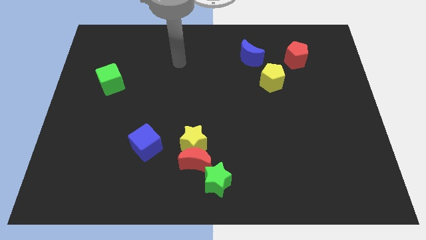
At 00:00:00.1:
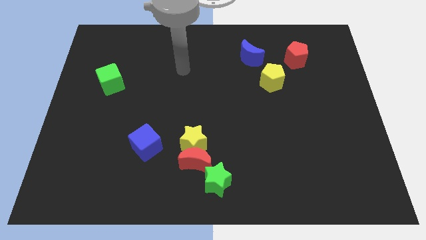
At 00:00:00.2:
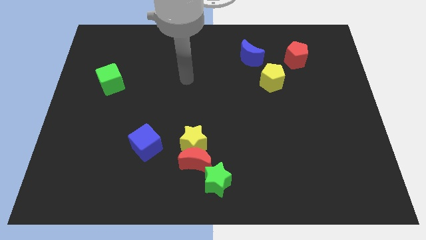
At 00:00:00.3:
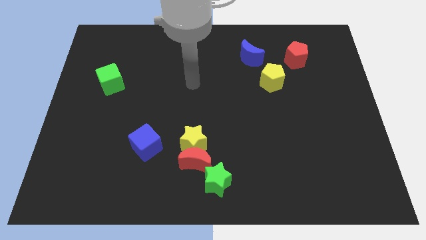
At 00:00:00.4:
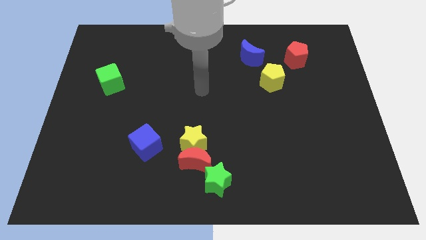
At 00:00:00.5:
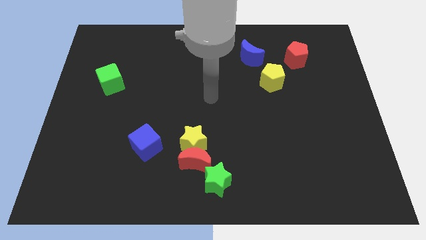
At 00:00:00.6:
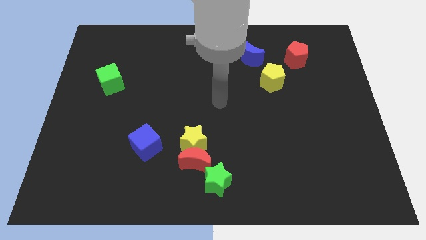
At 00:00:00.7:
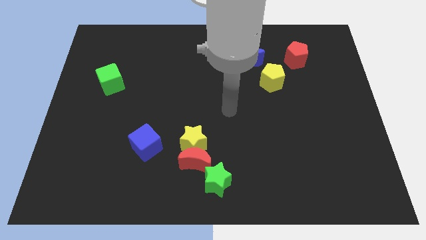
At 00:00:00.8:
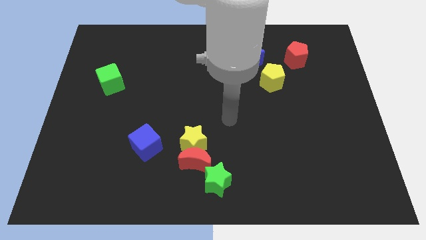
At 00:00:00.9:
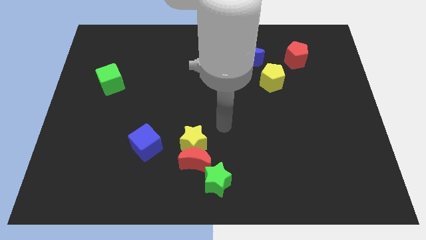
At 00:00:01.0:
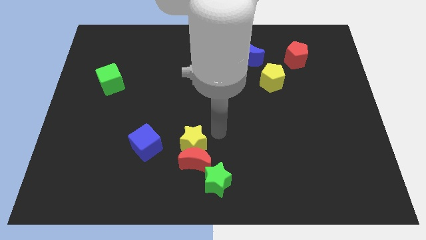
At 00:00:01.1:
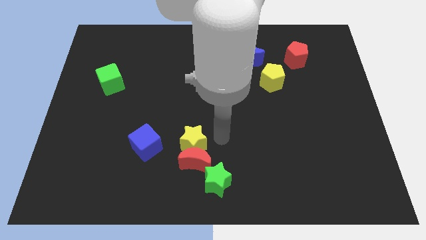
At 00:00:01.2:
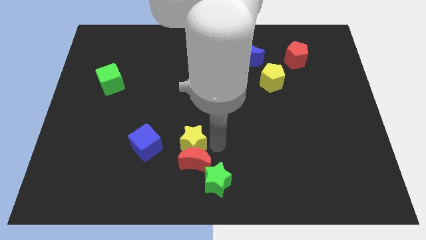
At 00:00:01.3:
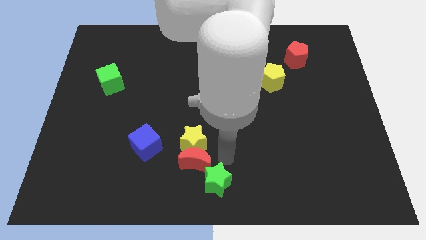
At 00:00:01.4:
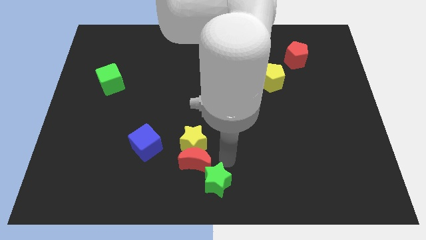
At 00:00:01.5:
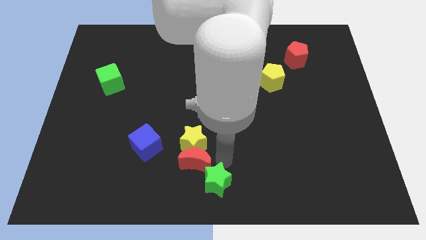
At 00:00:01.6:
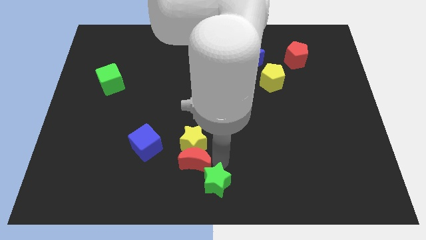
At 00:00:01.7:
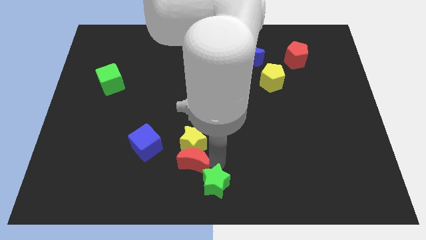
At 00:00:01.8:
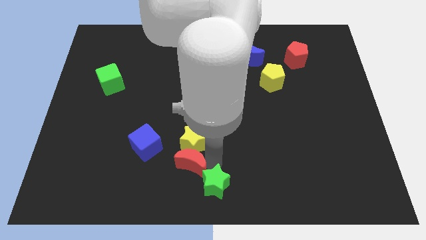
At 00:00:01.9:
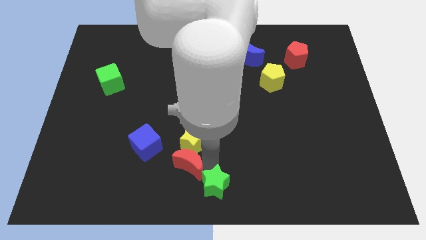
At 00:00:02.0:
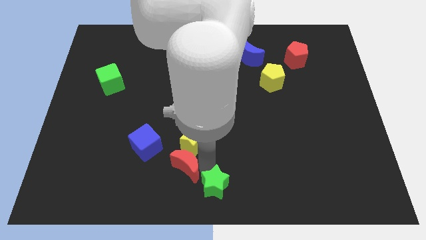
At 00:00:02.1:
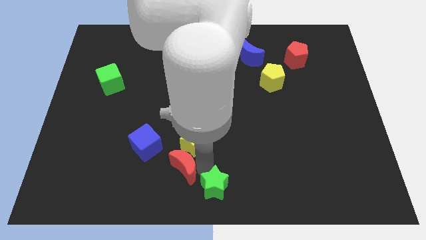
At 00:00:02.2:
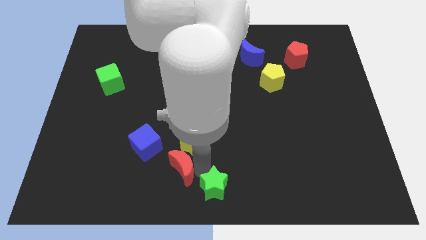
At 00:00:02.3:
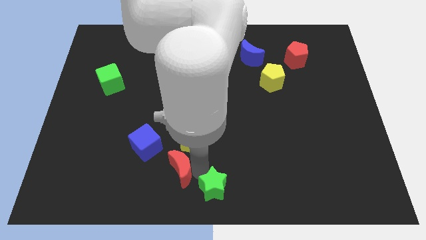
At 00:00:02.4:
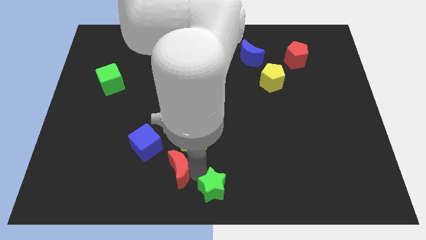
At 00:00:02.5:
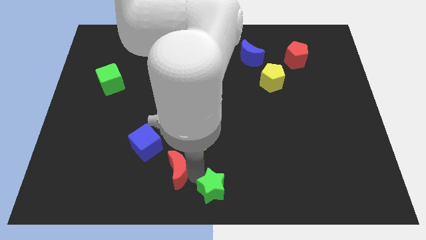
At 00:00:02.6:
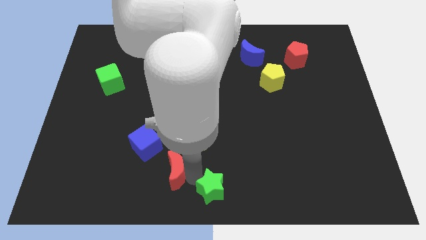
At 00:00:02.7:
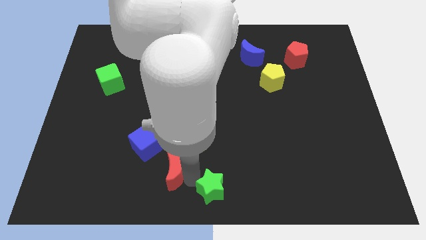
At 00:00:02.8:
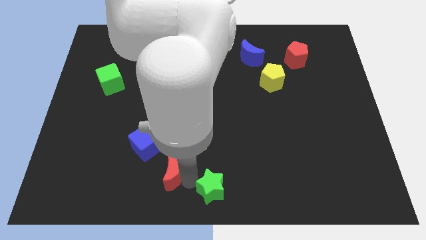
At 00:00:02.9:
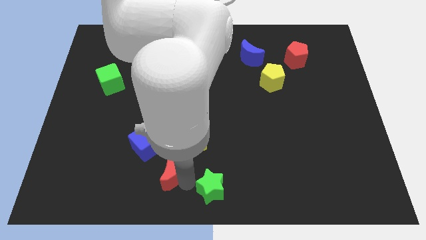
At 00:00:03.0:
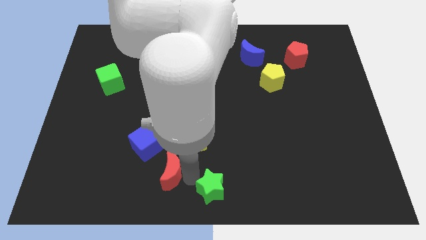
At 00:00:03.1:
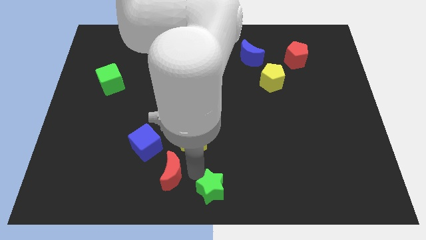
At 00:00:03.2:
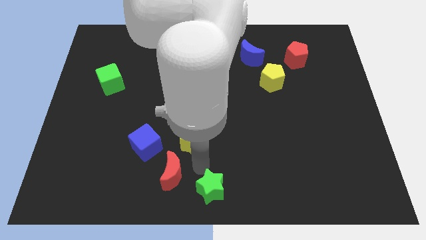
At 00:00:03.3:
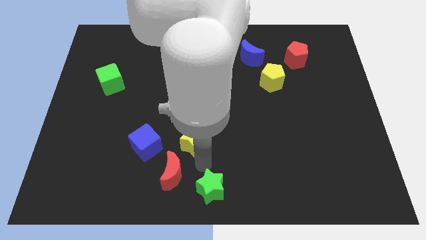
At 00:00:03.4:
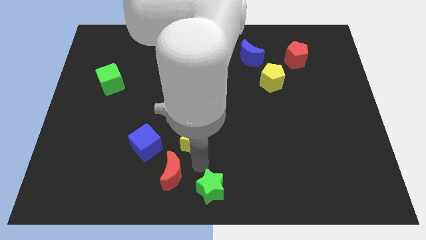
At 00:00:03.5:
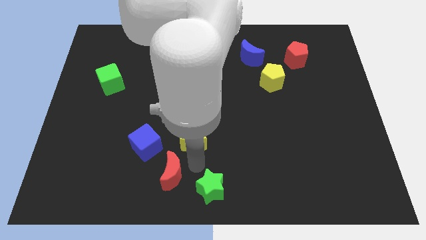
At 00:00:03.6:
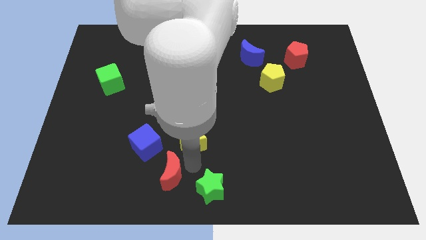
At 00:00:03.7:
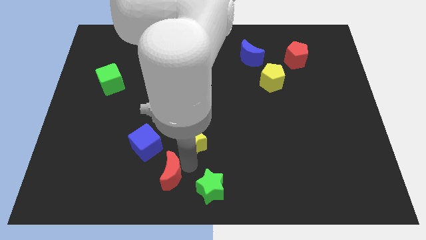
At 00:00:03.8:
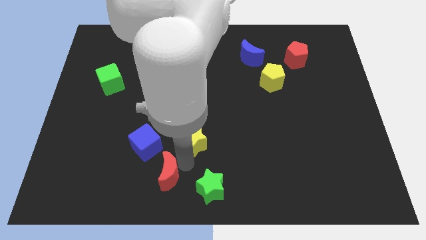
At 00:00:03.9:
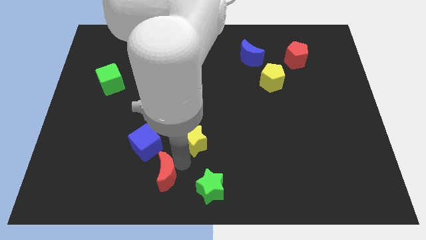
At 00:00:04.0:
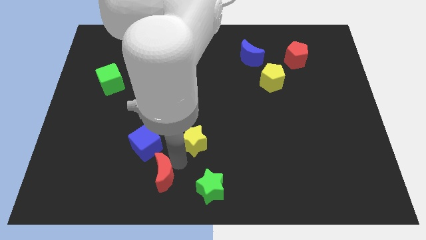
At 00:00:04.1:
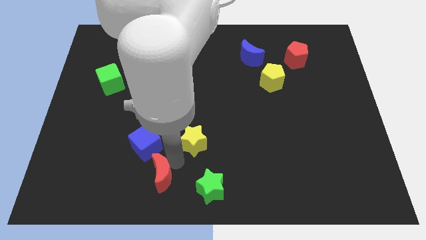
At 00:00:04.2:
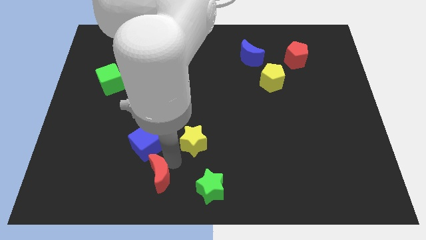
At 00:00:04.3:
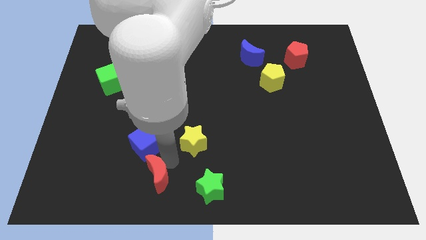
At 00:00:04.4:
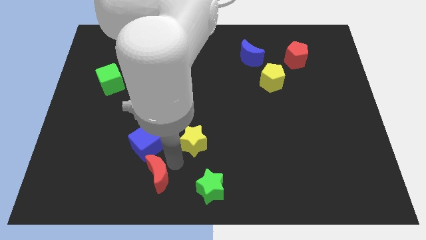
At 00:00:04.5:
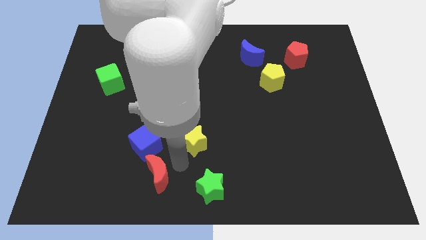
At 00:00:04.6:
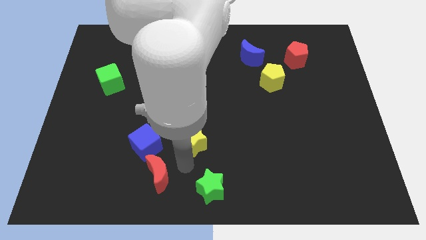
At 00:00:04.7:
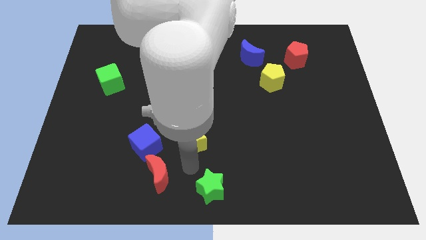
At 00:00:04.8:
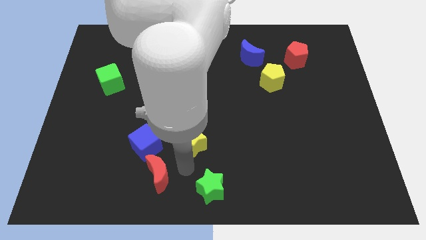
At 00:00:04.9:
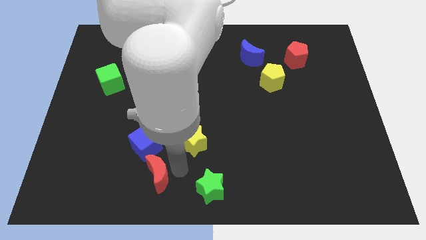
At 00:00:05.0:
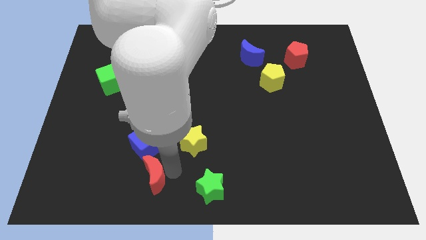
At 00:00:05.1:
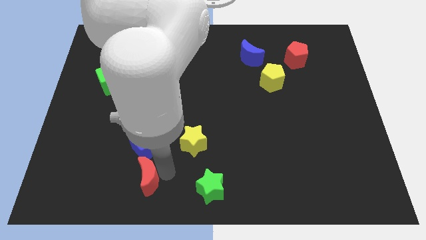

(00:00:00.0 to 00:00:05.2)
move the red moon away from the yellow star and green star

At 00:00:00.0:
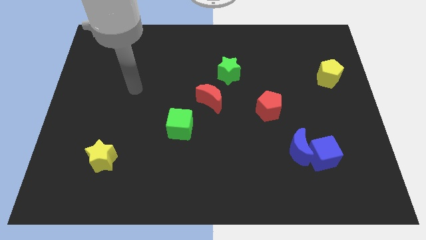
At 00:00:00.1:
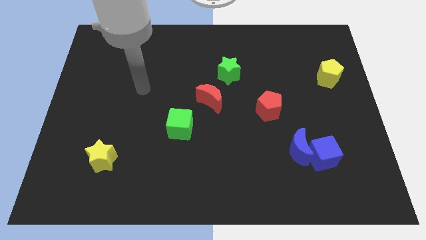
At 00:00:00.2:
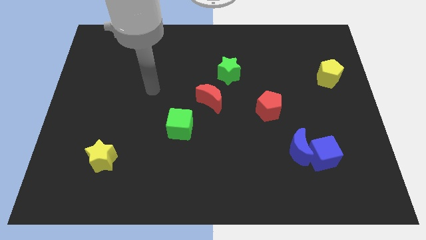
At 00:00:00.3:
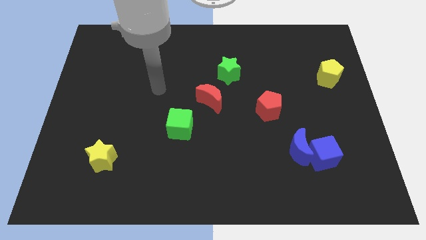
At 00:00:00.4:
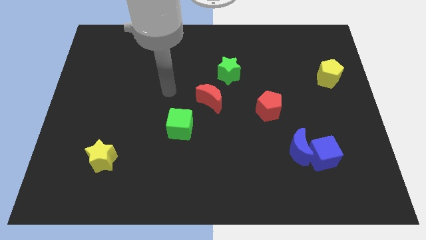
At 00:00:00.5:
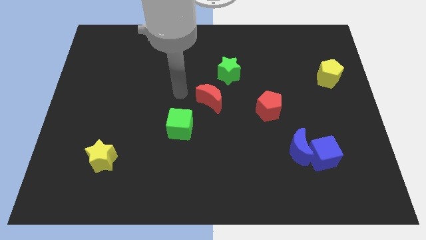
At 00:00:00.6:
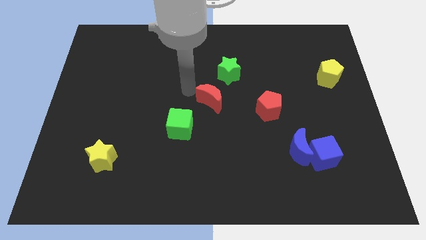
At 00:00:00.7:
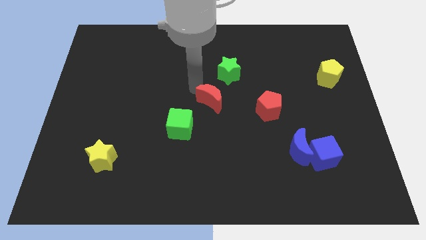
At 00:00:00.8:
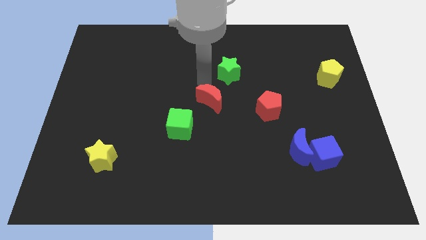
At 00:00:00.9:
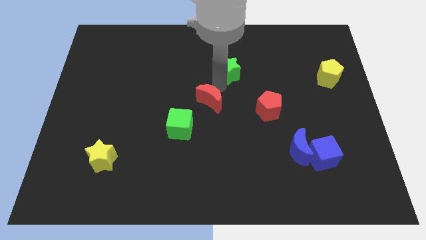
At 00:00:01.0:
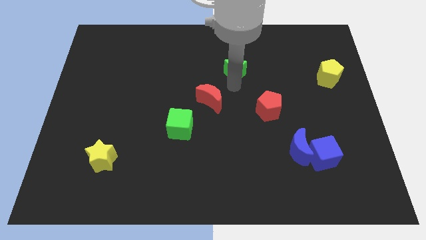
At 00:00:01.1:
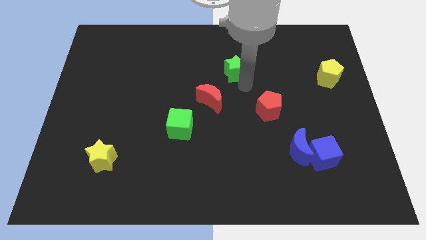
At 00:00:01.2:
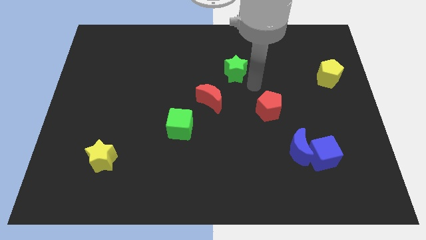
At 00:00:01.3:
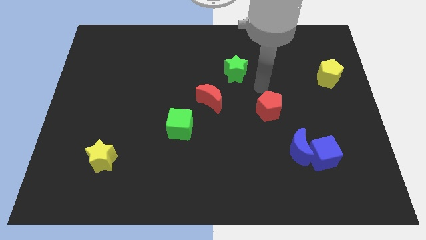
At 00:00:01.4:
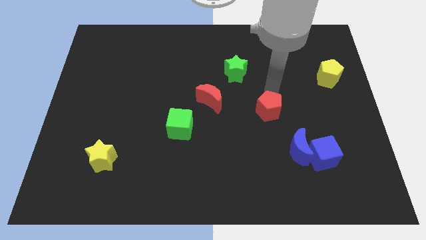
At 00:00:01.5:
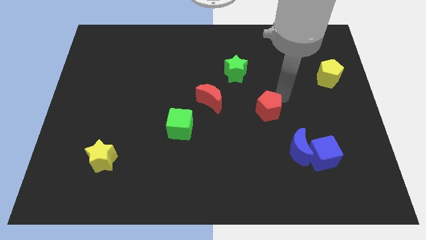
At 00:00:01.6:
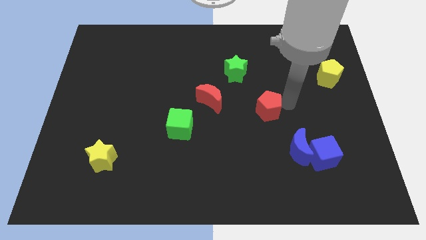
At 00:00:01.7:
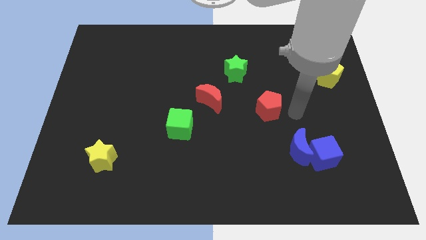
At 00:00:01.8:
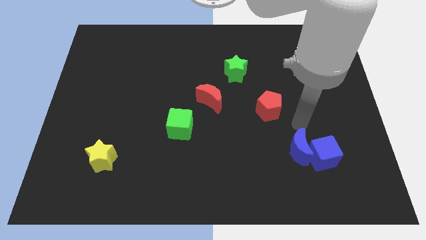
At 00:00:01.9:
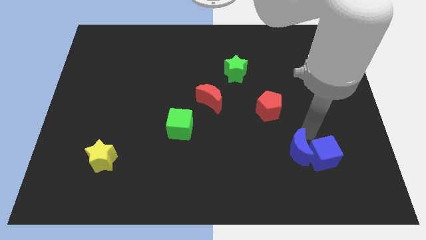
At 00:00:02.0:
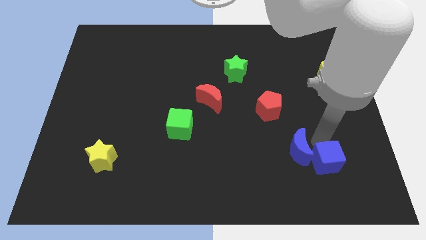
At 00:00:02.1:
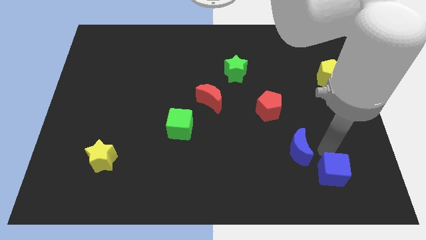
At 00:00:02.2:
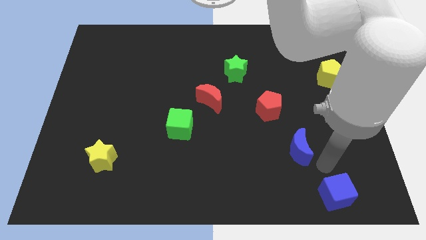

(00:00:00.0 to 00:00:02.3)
separate the blue moon from the blue cube

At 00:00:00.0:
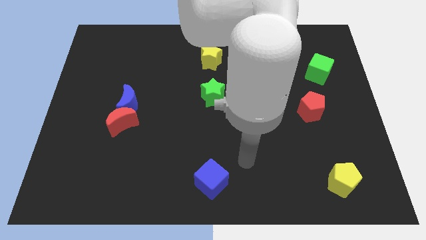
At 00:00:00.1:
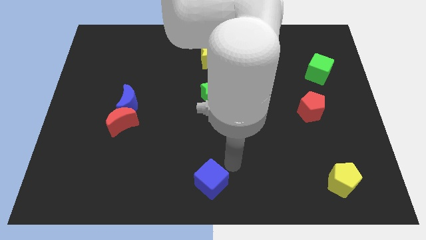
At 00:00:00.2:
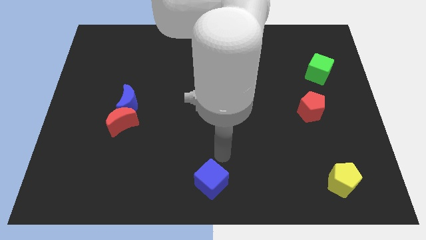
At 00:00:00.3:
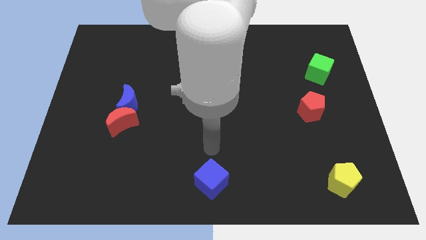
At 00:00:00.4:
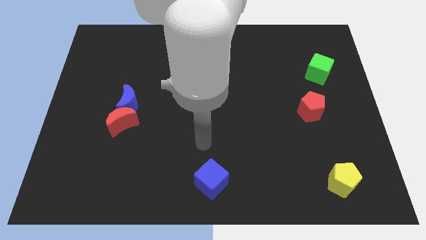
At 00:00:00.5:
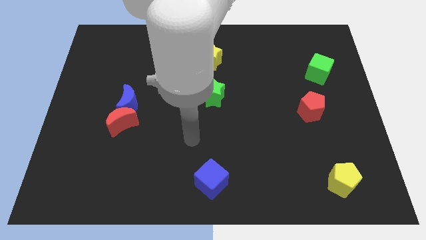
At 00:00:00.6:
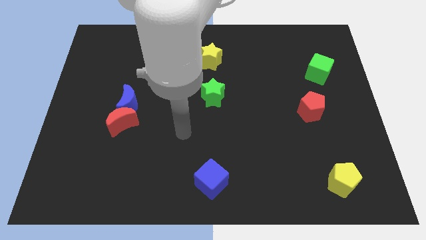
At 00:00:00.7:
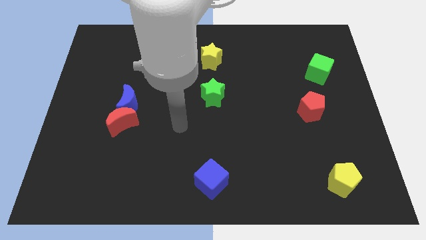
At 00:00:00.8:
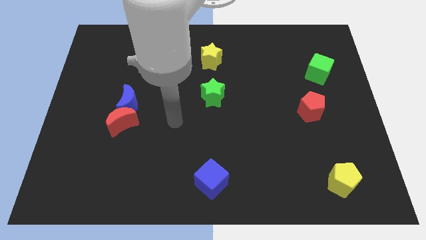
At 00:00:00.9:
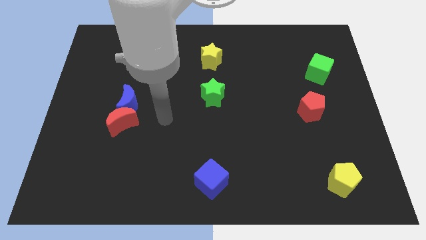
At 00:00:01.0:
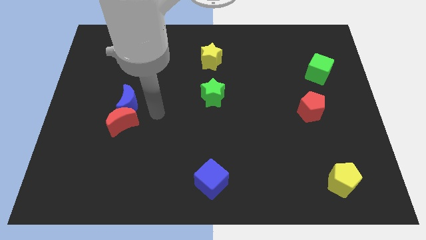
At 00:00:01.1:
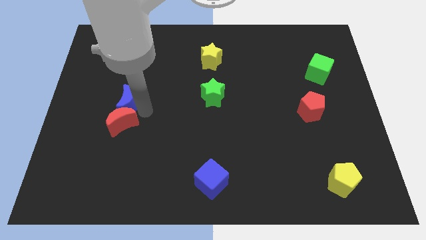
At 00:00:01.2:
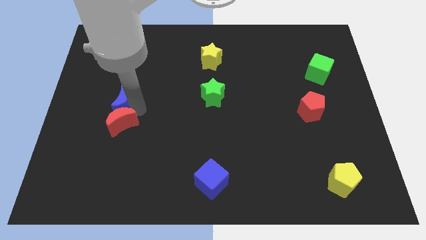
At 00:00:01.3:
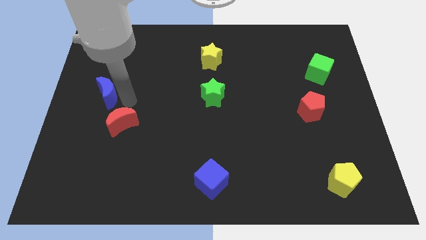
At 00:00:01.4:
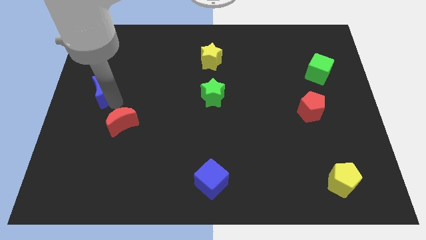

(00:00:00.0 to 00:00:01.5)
separate the red moon from the blue moon

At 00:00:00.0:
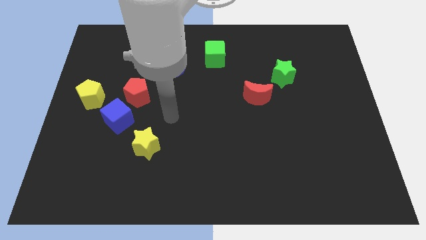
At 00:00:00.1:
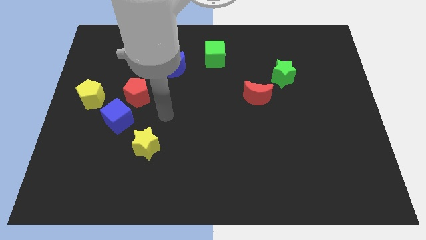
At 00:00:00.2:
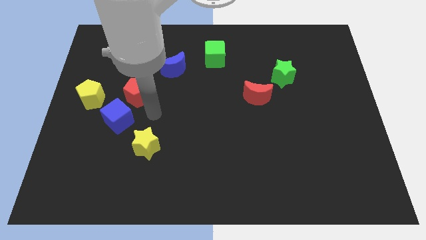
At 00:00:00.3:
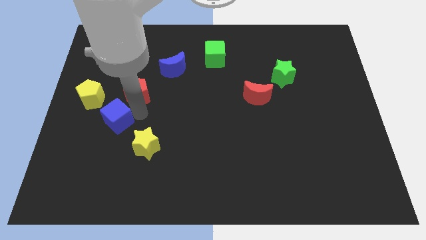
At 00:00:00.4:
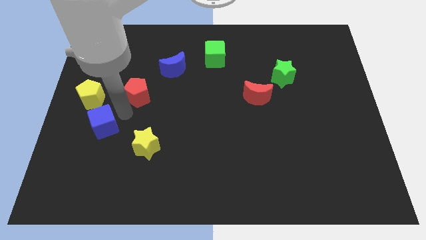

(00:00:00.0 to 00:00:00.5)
pull the red pentagon apart from the blue cube
